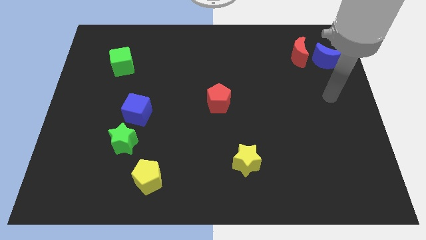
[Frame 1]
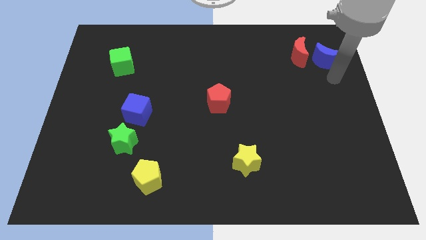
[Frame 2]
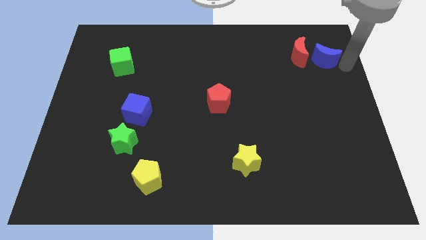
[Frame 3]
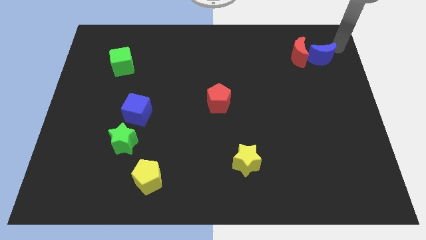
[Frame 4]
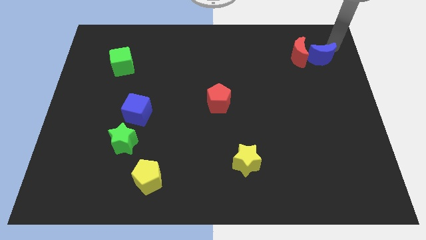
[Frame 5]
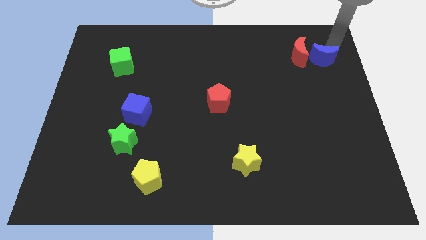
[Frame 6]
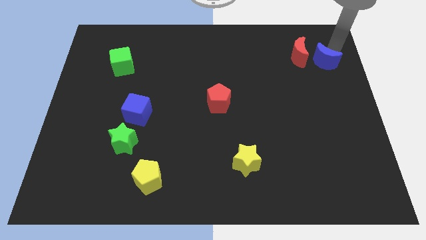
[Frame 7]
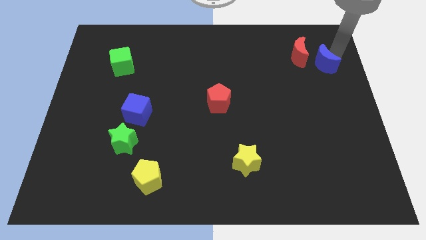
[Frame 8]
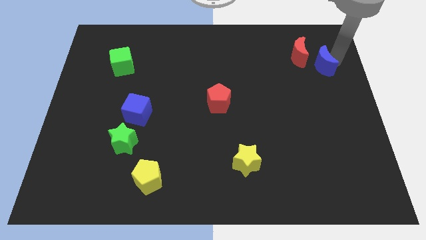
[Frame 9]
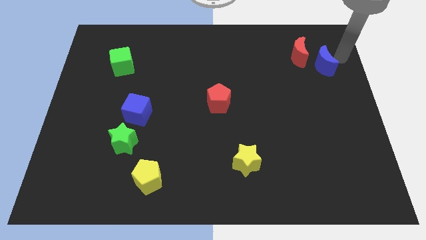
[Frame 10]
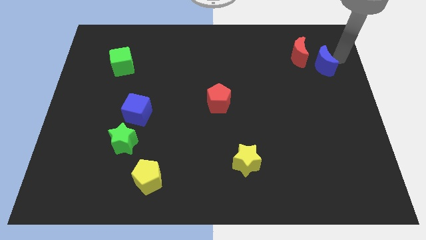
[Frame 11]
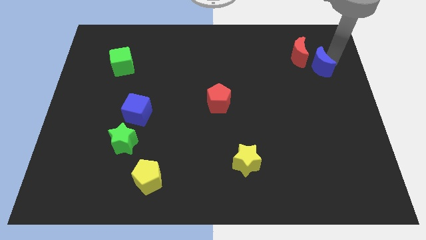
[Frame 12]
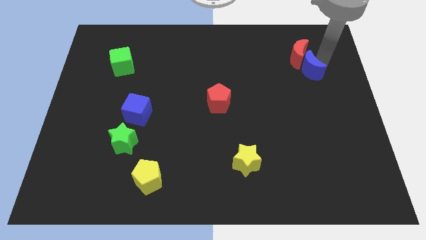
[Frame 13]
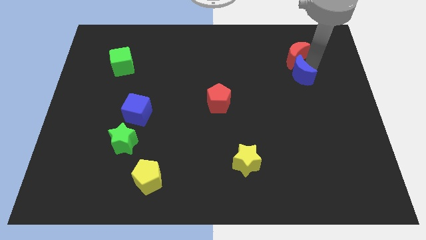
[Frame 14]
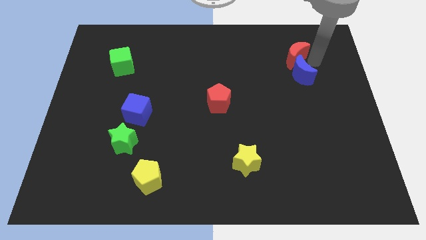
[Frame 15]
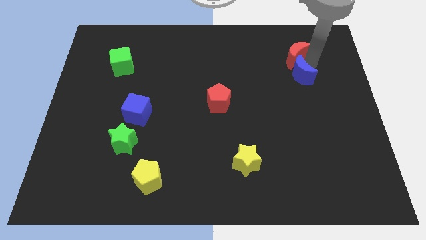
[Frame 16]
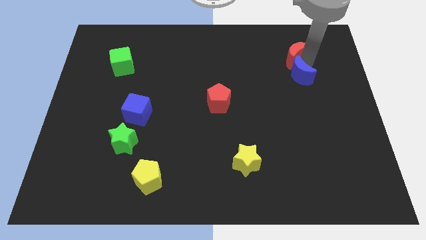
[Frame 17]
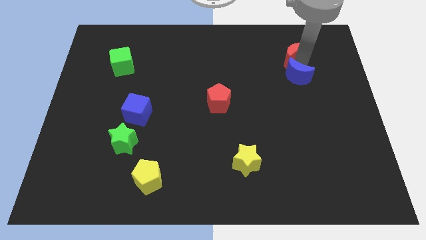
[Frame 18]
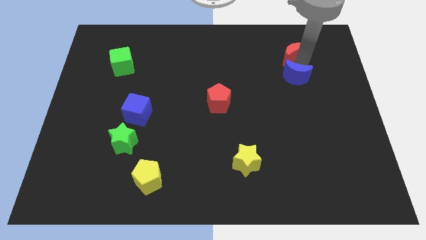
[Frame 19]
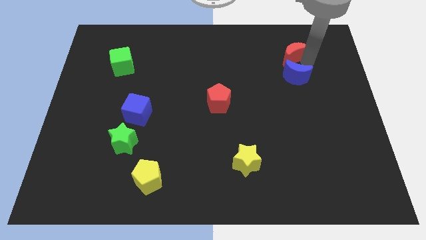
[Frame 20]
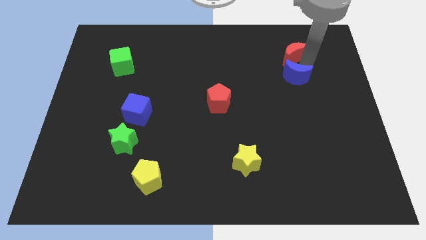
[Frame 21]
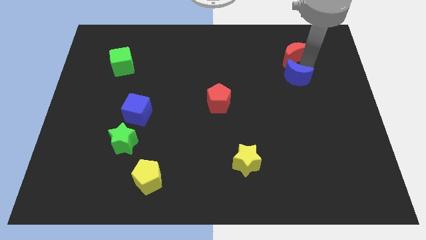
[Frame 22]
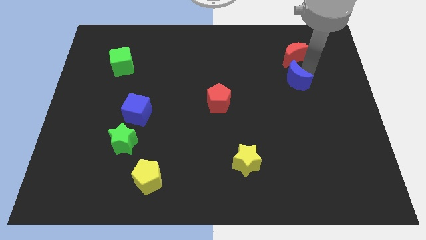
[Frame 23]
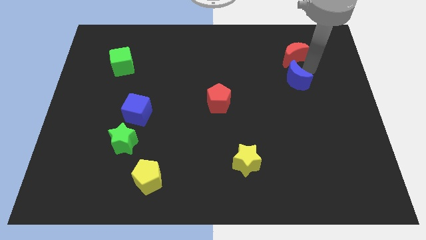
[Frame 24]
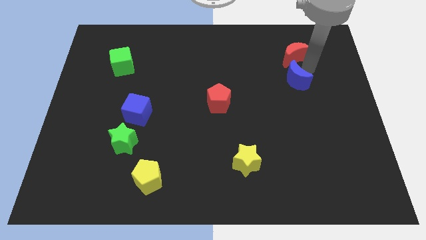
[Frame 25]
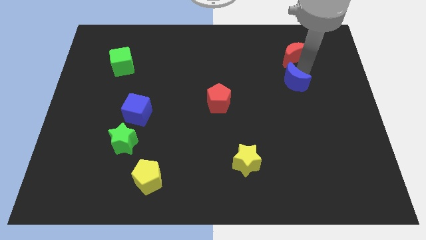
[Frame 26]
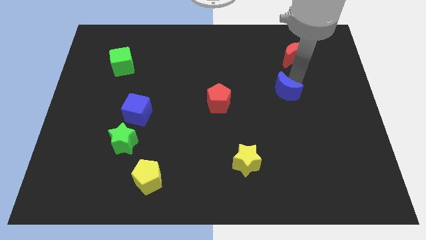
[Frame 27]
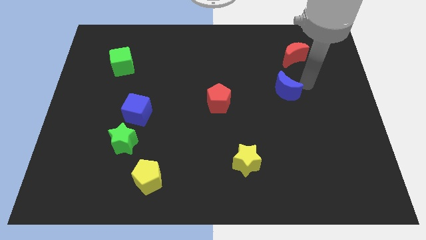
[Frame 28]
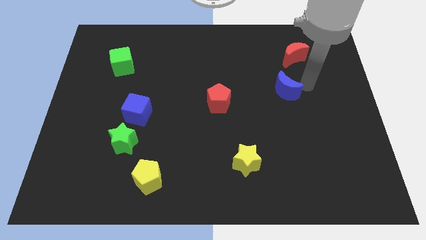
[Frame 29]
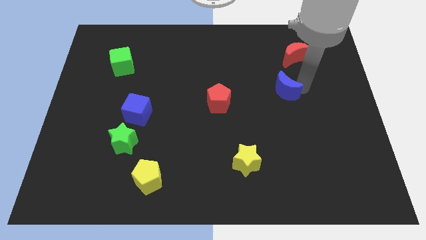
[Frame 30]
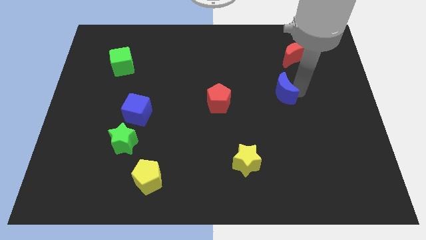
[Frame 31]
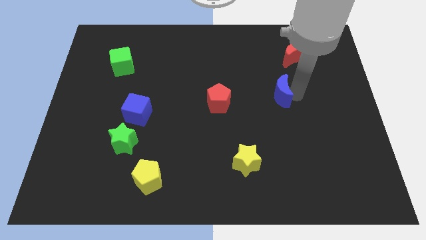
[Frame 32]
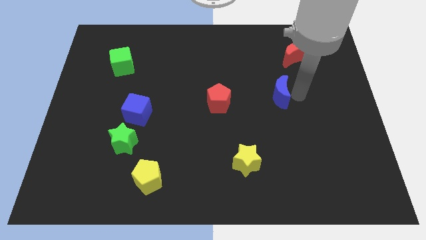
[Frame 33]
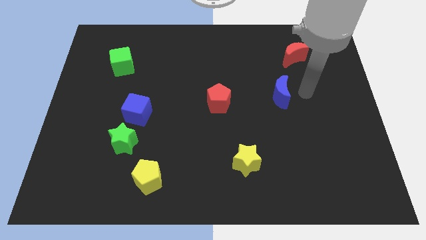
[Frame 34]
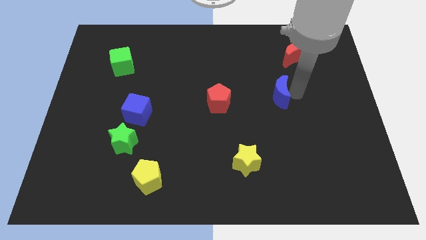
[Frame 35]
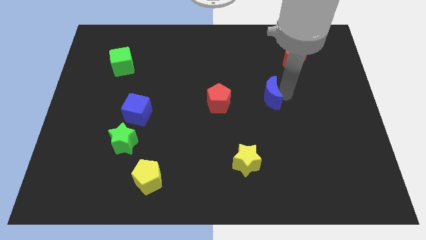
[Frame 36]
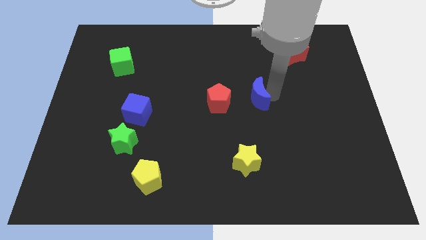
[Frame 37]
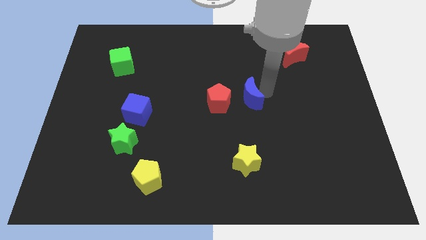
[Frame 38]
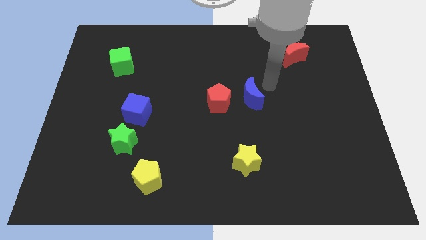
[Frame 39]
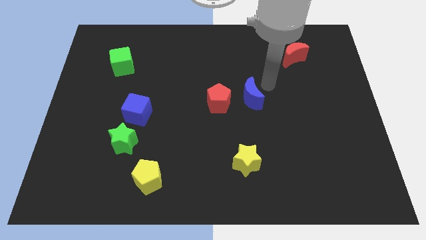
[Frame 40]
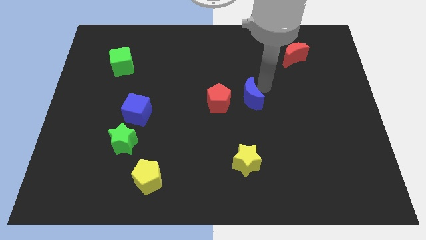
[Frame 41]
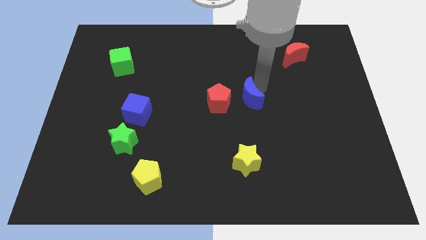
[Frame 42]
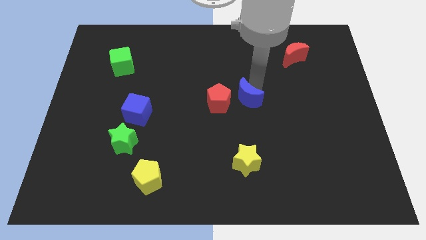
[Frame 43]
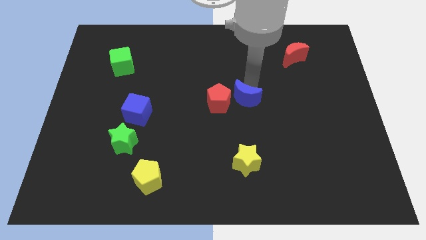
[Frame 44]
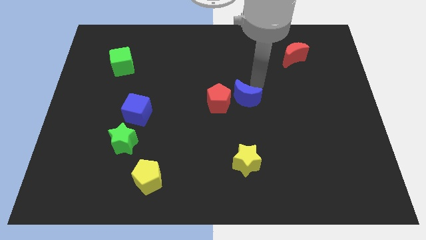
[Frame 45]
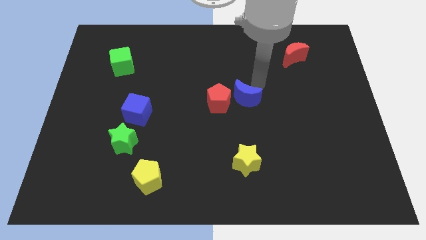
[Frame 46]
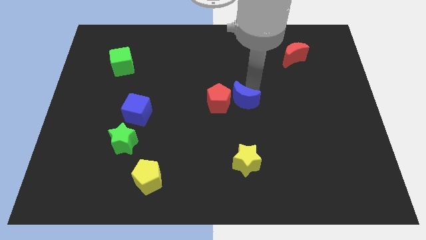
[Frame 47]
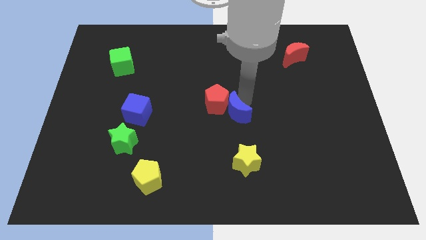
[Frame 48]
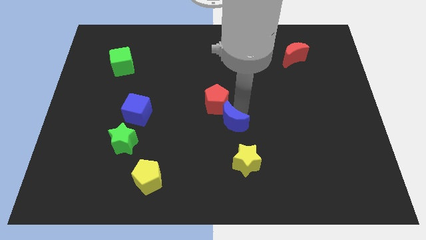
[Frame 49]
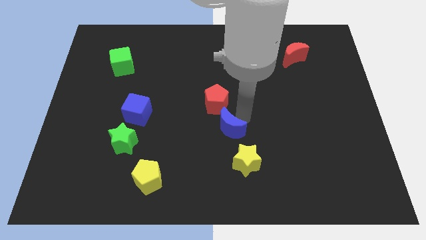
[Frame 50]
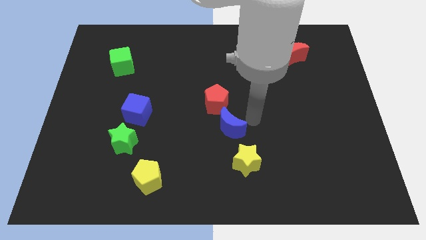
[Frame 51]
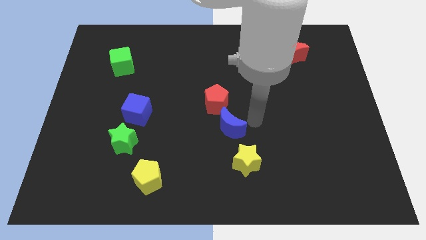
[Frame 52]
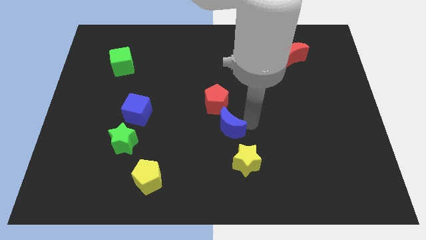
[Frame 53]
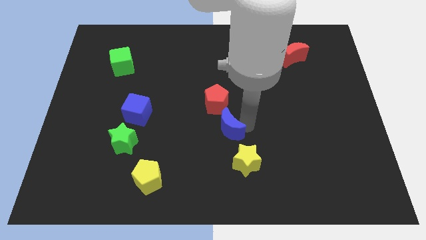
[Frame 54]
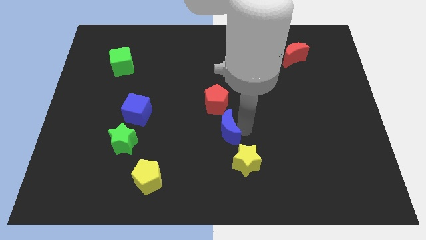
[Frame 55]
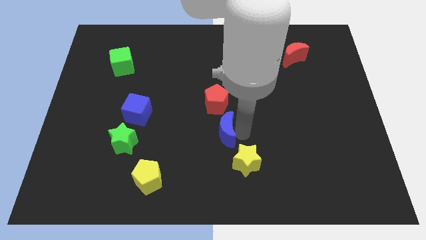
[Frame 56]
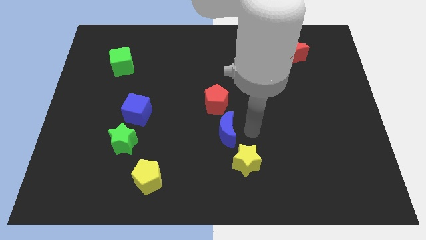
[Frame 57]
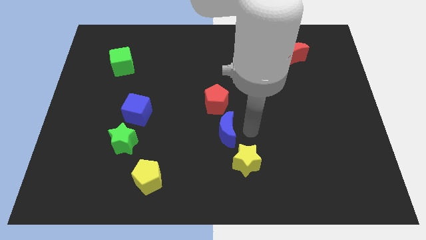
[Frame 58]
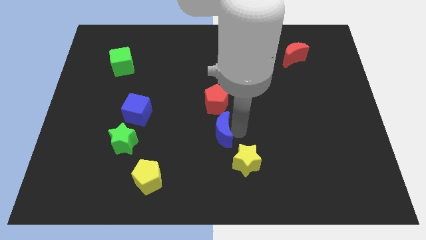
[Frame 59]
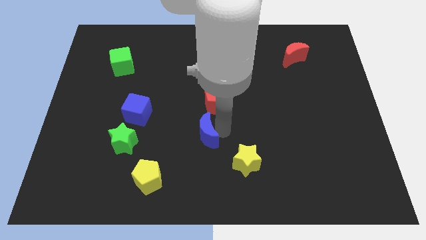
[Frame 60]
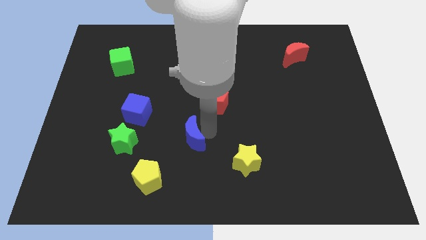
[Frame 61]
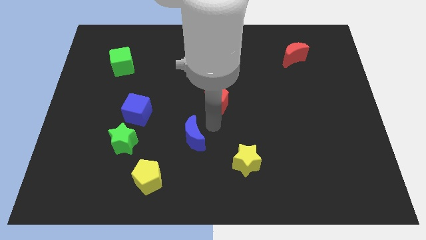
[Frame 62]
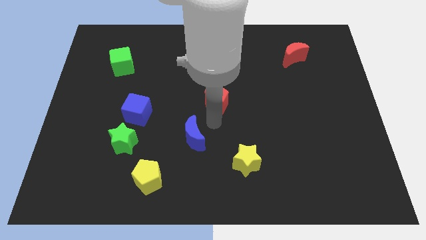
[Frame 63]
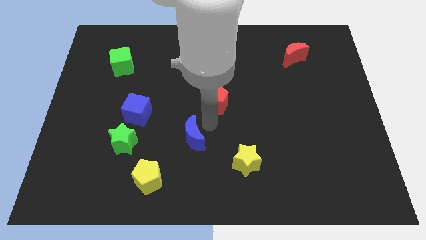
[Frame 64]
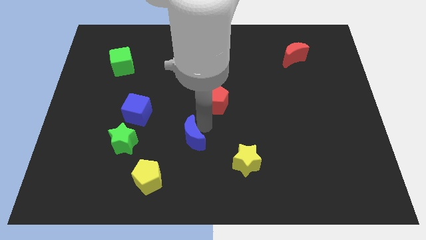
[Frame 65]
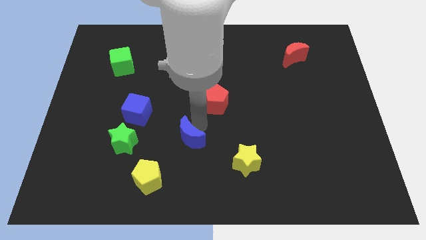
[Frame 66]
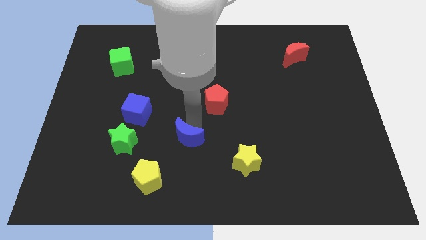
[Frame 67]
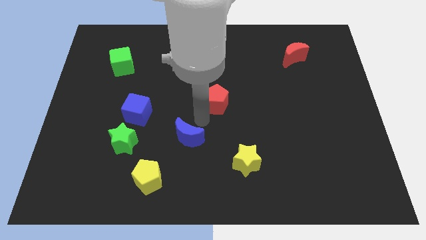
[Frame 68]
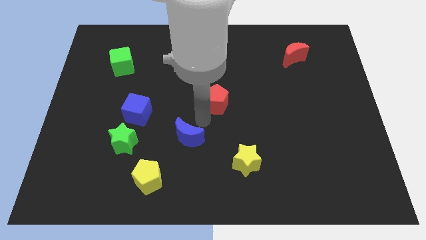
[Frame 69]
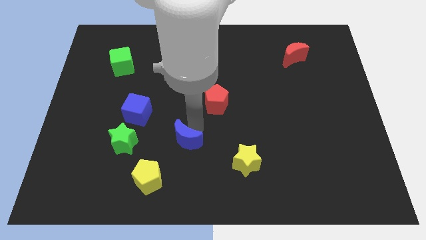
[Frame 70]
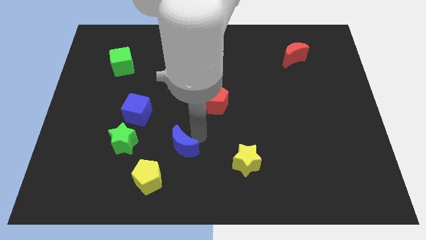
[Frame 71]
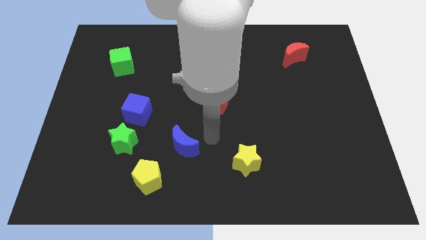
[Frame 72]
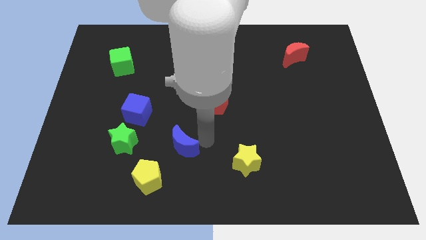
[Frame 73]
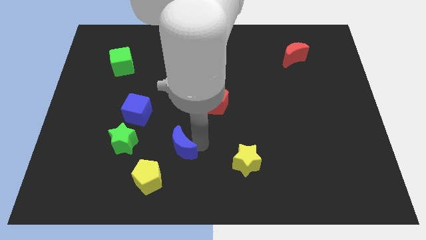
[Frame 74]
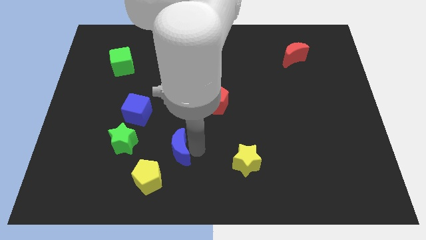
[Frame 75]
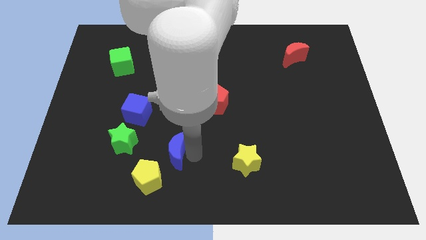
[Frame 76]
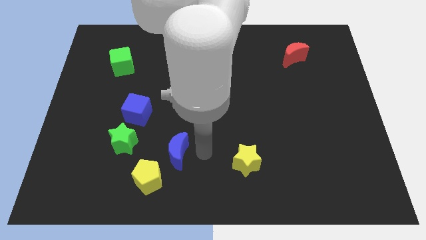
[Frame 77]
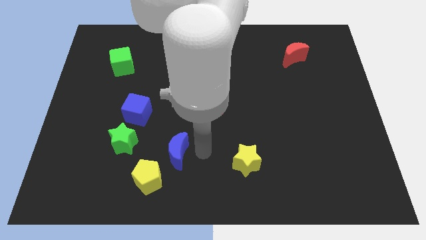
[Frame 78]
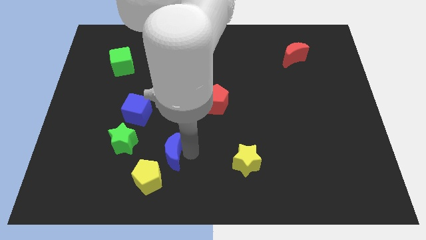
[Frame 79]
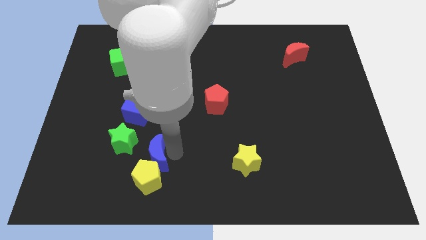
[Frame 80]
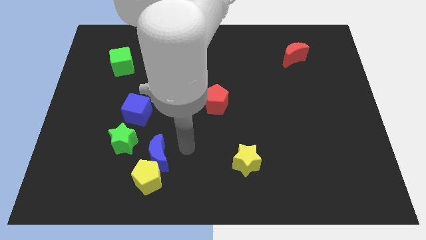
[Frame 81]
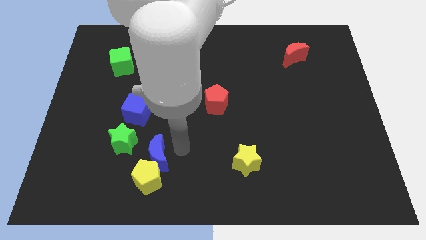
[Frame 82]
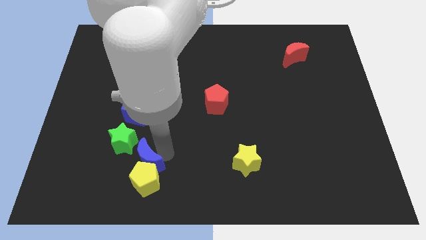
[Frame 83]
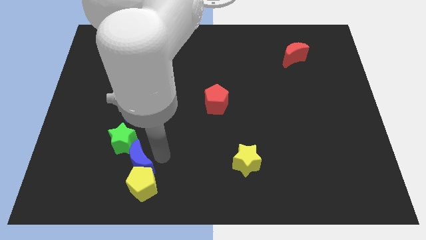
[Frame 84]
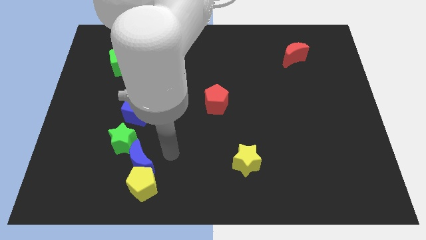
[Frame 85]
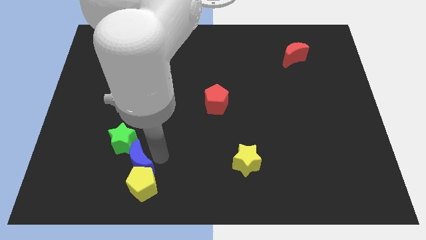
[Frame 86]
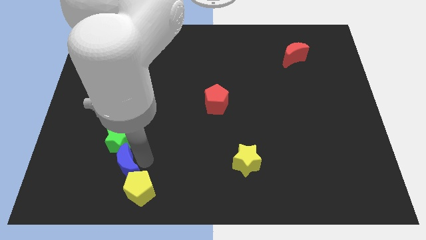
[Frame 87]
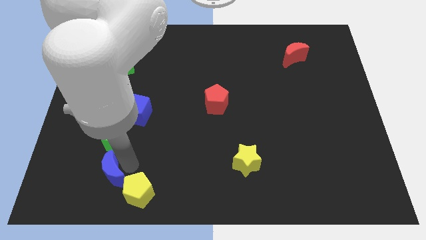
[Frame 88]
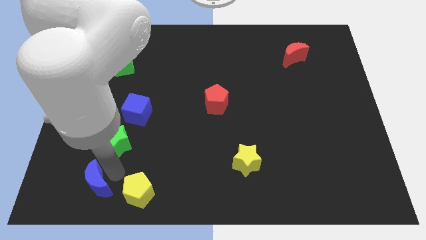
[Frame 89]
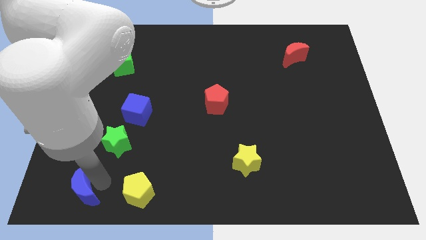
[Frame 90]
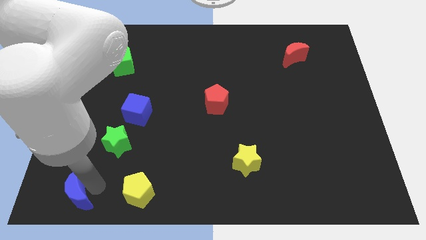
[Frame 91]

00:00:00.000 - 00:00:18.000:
move the blue moon to the bottom left of the board
